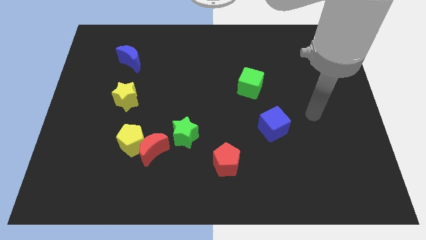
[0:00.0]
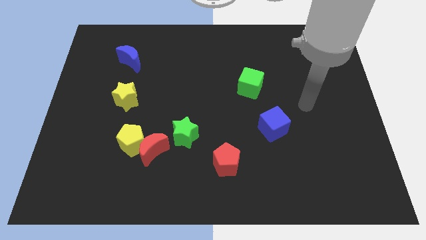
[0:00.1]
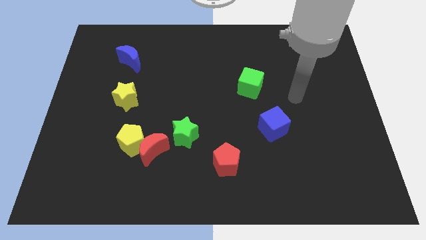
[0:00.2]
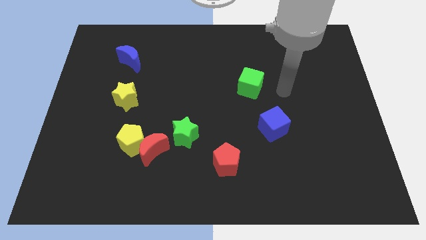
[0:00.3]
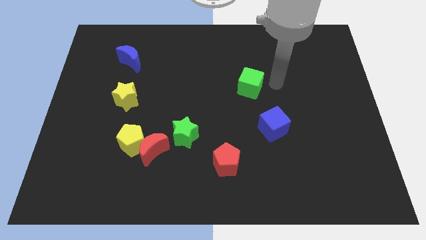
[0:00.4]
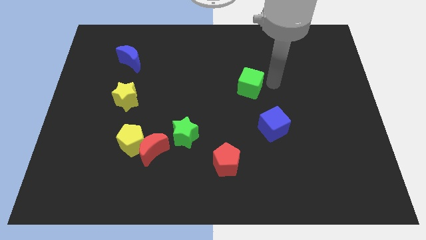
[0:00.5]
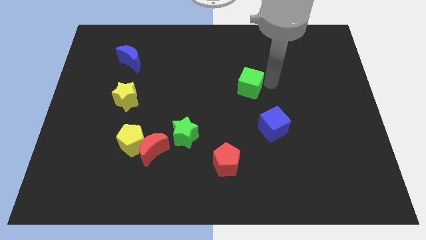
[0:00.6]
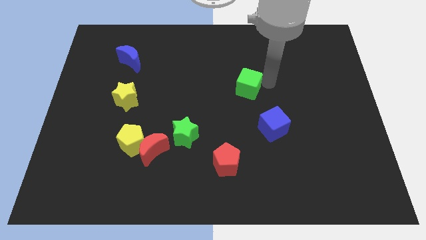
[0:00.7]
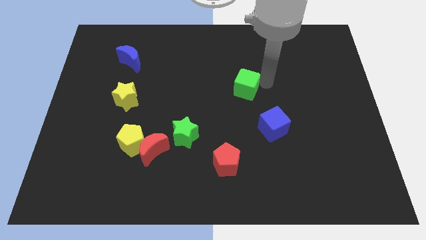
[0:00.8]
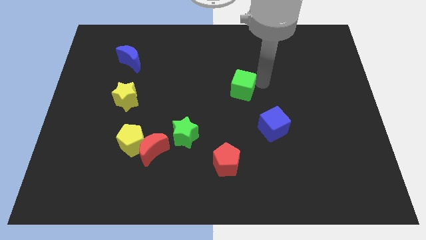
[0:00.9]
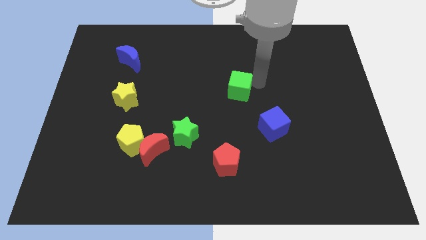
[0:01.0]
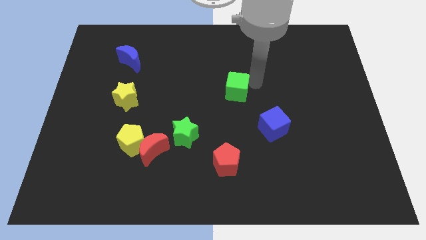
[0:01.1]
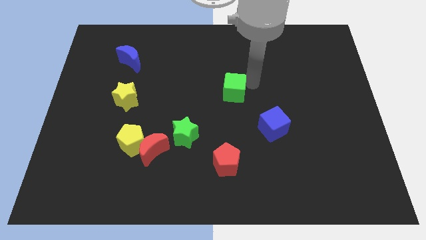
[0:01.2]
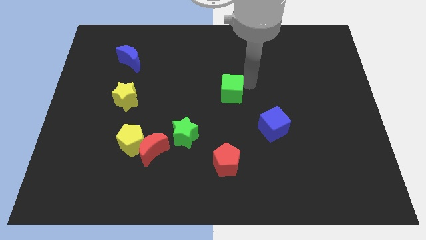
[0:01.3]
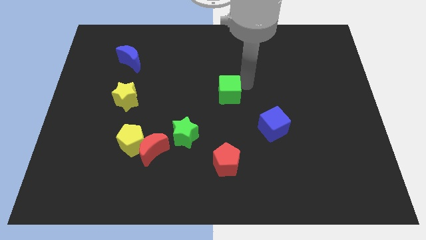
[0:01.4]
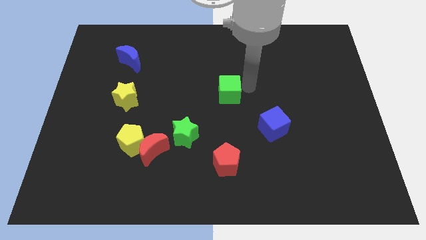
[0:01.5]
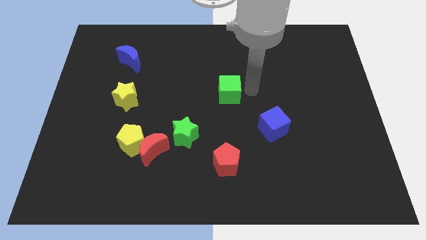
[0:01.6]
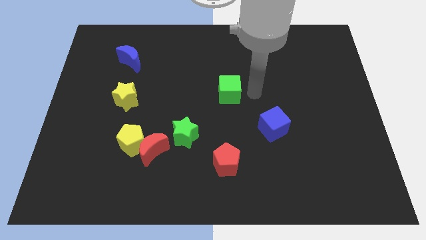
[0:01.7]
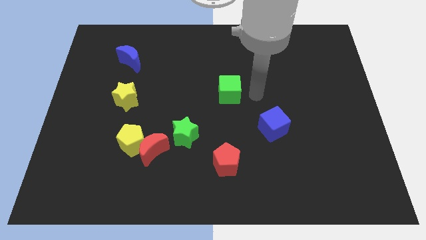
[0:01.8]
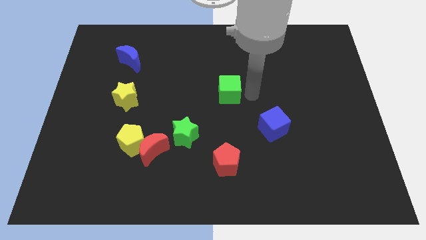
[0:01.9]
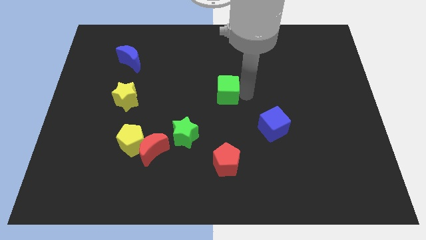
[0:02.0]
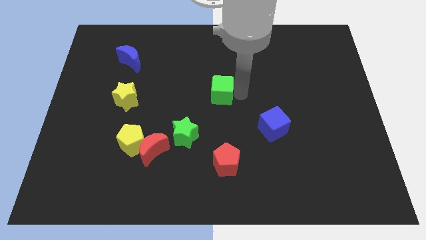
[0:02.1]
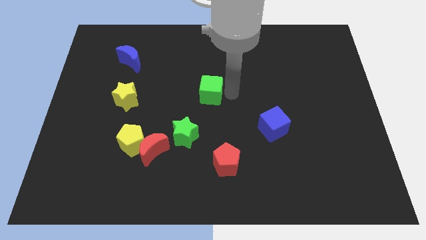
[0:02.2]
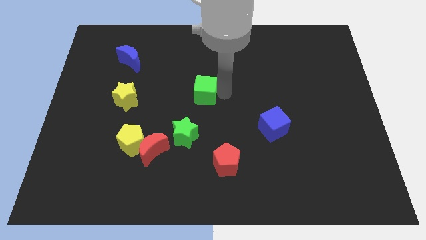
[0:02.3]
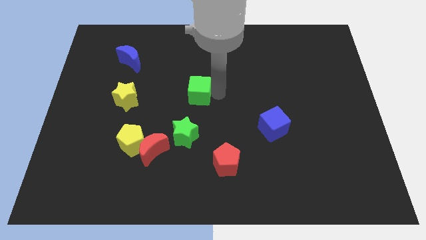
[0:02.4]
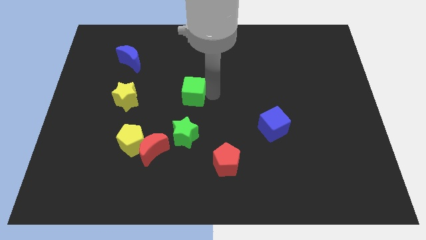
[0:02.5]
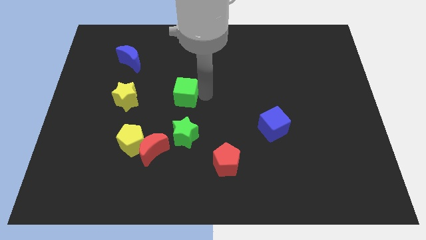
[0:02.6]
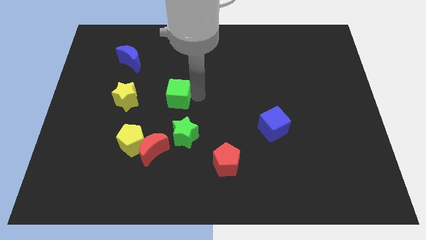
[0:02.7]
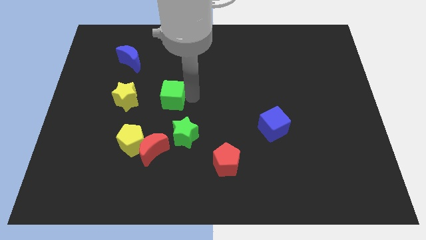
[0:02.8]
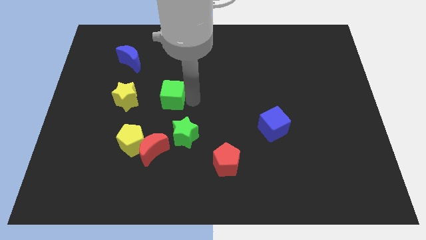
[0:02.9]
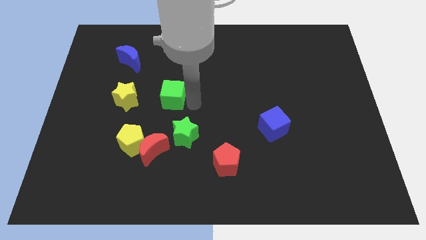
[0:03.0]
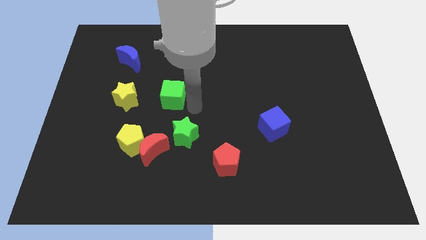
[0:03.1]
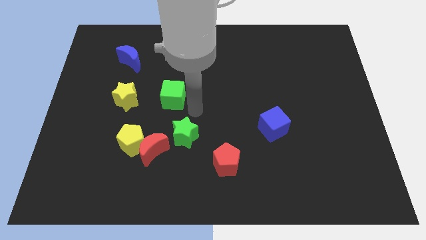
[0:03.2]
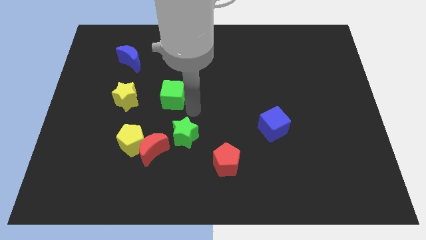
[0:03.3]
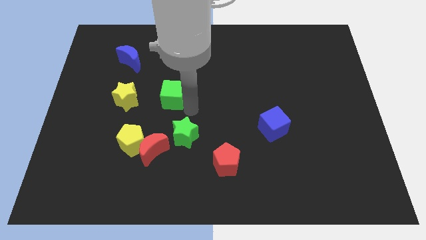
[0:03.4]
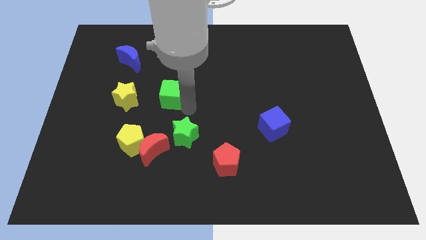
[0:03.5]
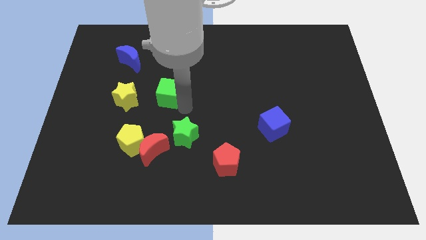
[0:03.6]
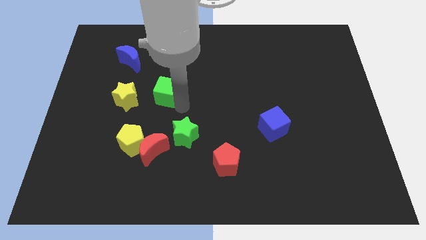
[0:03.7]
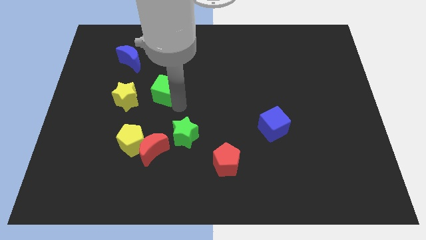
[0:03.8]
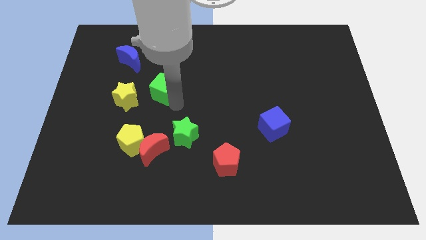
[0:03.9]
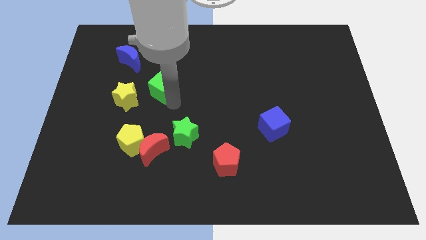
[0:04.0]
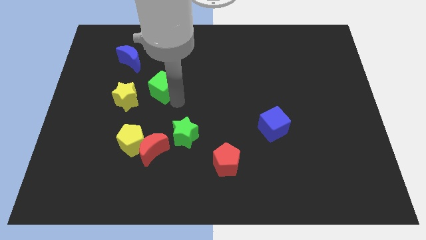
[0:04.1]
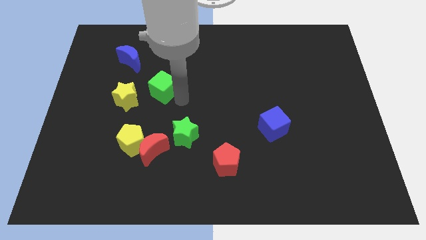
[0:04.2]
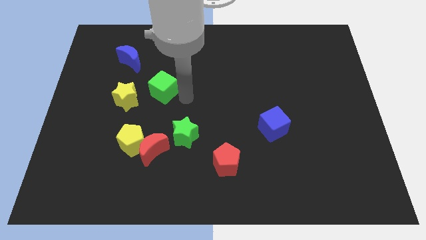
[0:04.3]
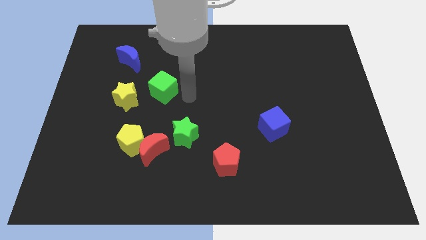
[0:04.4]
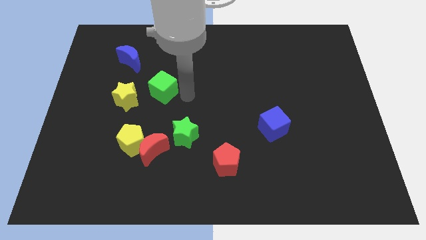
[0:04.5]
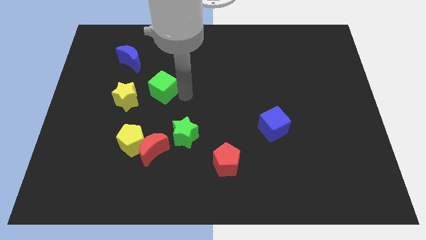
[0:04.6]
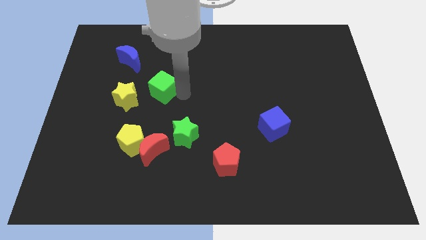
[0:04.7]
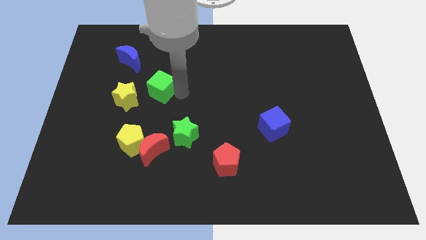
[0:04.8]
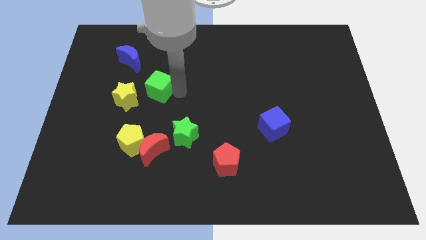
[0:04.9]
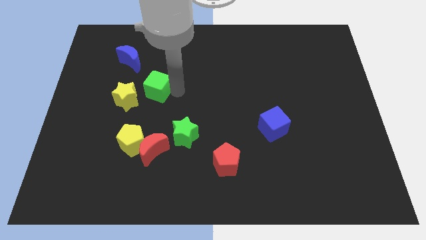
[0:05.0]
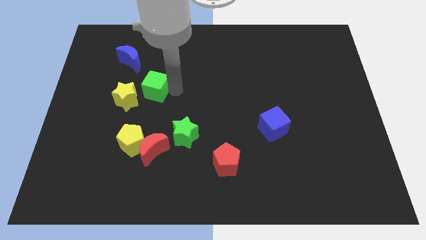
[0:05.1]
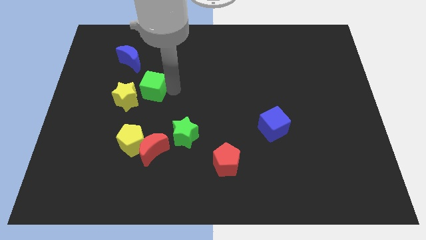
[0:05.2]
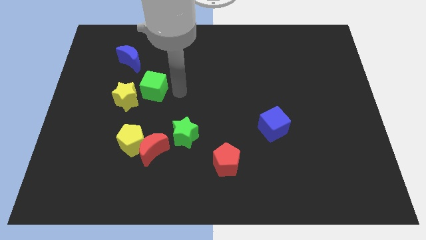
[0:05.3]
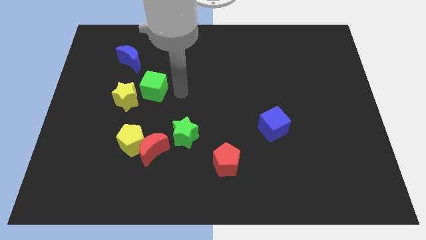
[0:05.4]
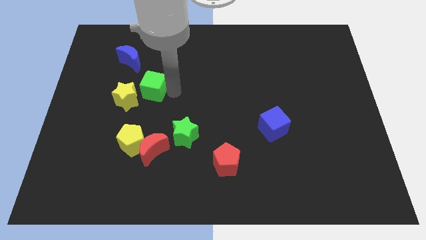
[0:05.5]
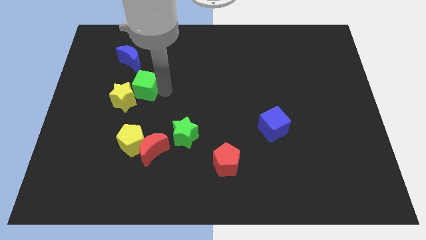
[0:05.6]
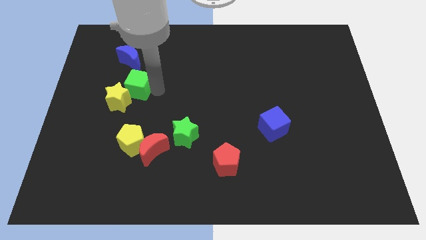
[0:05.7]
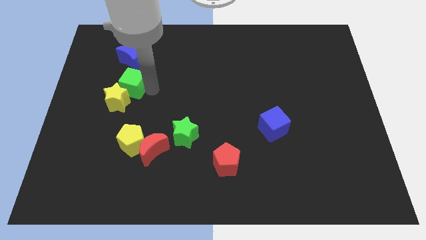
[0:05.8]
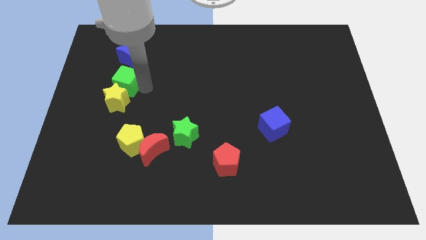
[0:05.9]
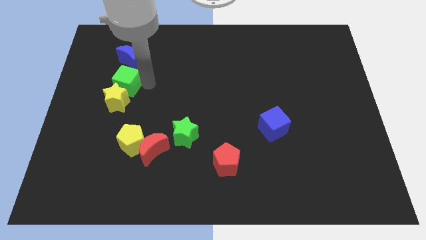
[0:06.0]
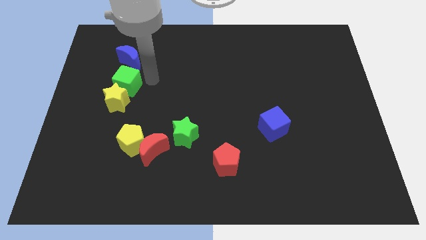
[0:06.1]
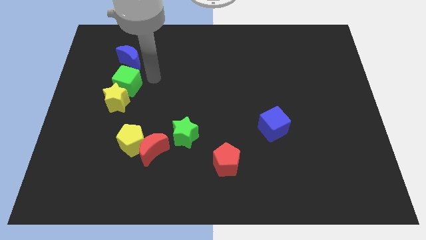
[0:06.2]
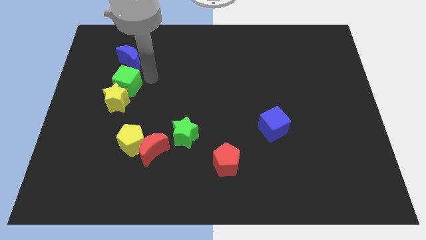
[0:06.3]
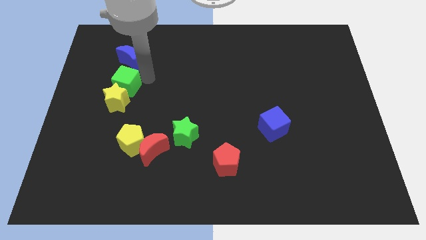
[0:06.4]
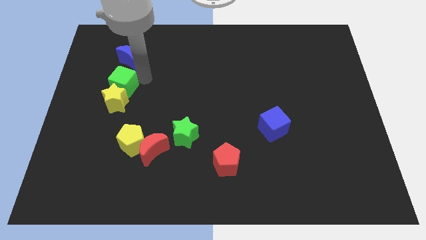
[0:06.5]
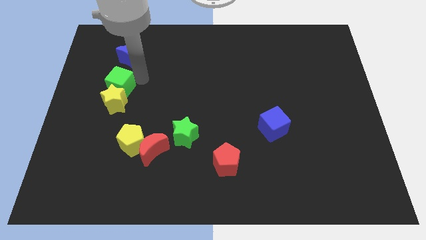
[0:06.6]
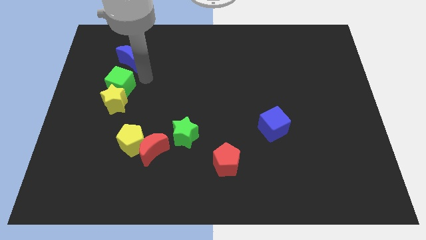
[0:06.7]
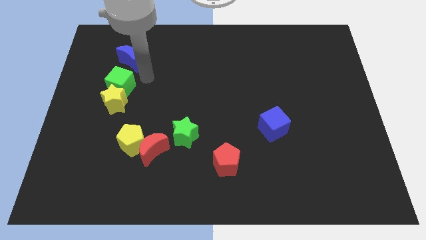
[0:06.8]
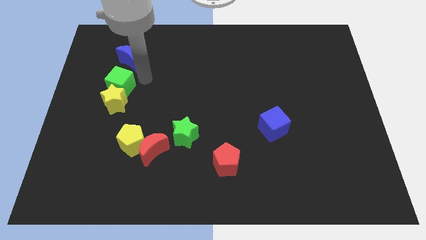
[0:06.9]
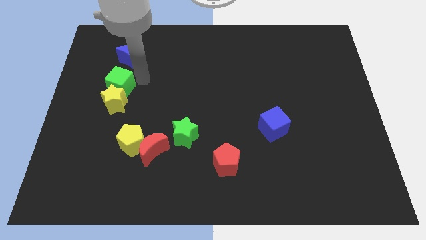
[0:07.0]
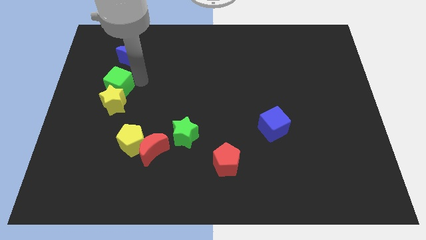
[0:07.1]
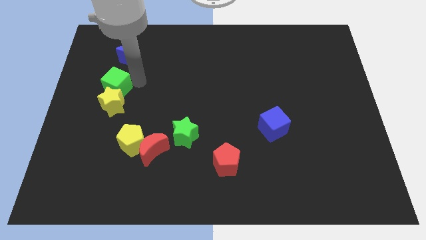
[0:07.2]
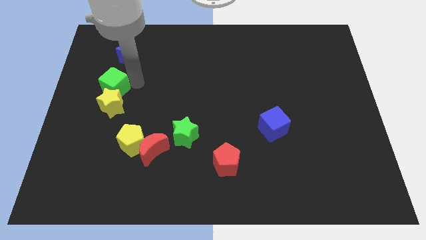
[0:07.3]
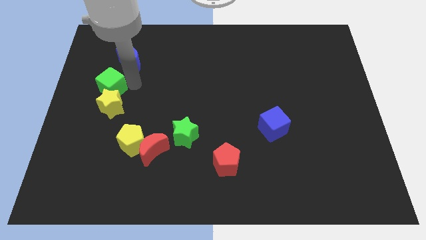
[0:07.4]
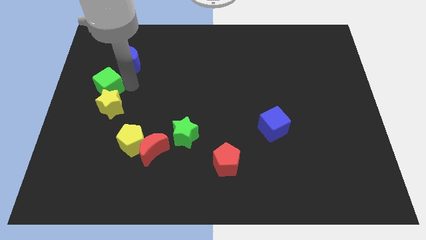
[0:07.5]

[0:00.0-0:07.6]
move the green cube to the center left
